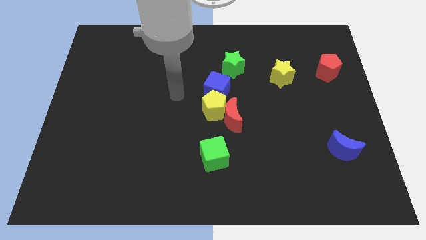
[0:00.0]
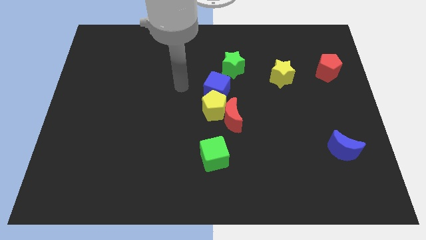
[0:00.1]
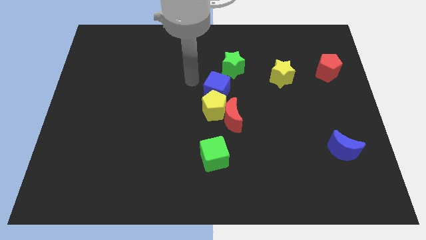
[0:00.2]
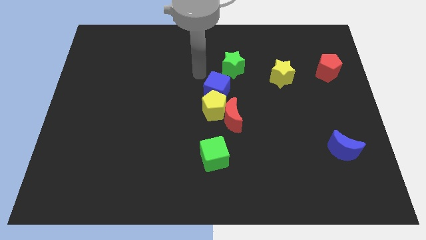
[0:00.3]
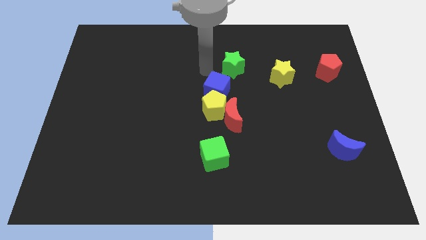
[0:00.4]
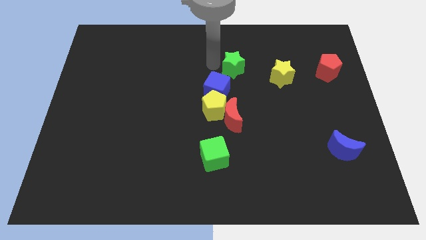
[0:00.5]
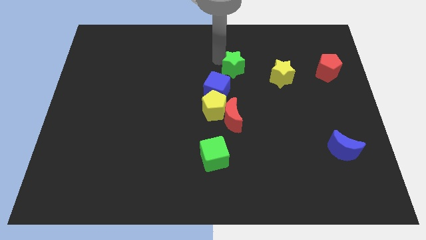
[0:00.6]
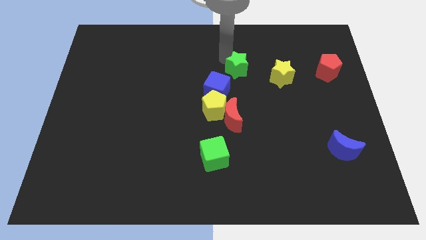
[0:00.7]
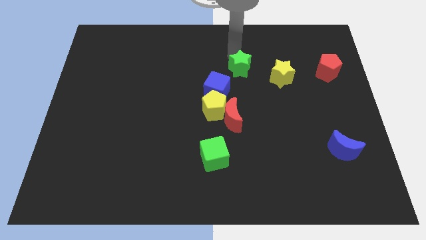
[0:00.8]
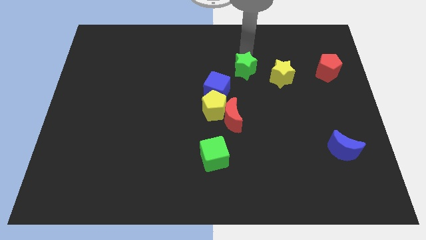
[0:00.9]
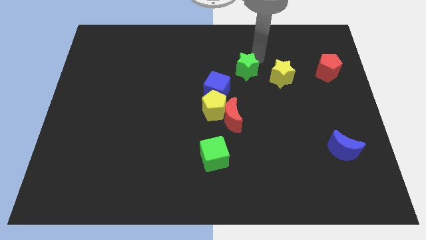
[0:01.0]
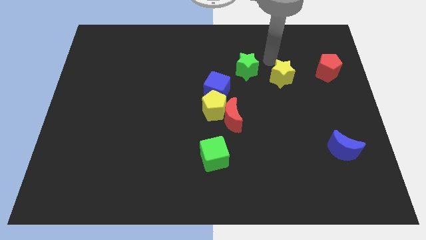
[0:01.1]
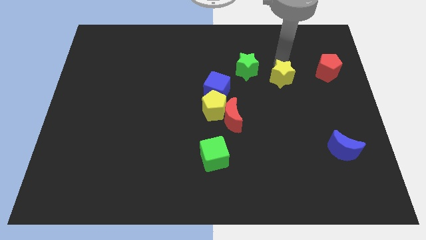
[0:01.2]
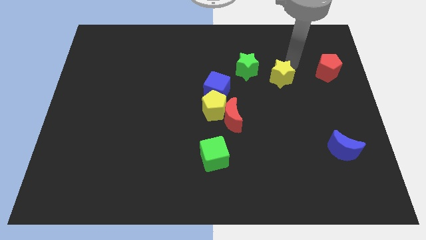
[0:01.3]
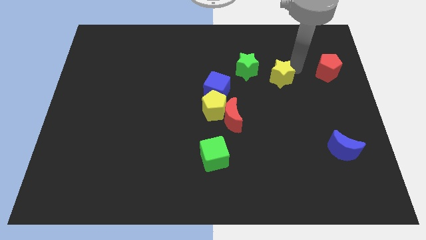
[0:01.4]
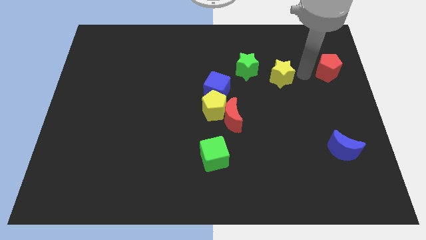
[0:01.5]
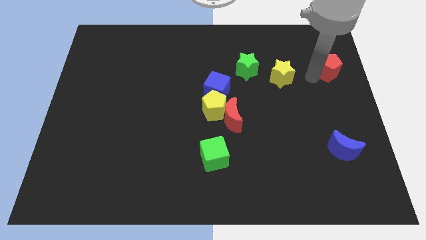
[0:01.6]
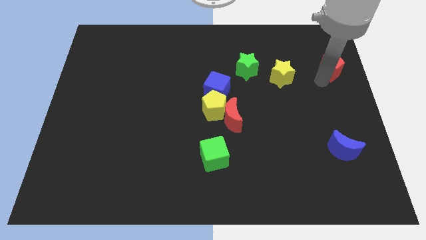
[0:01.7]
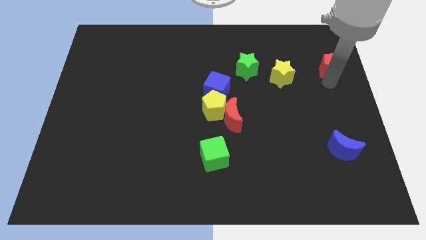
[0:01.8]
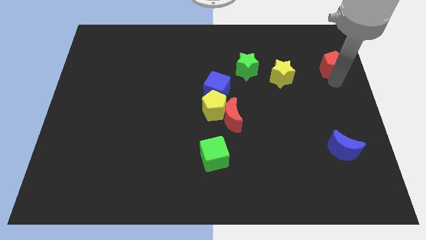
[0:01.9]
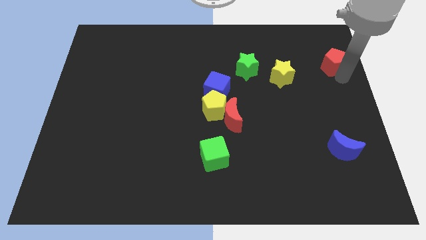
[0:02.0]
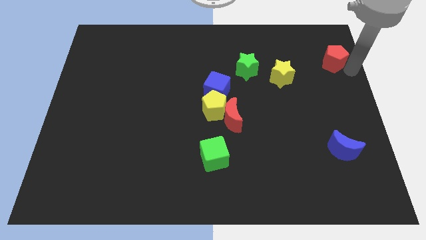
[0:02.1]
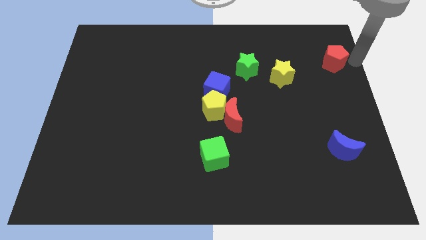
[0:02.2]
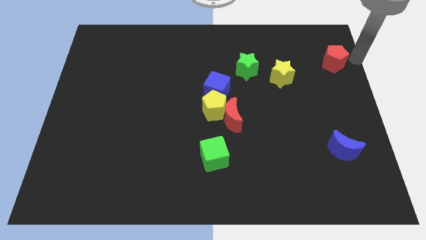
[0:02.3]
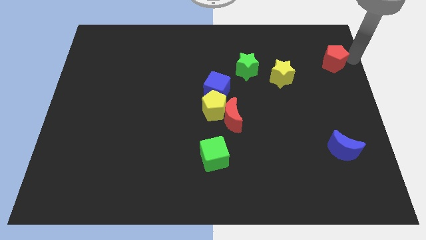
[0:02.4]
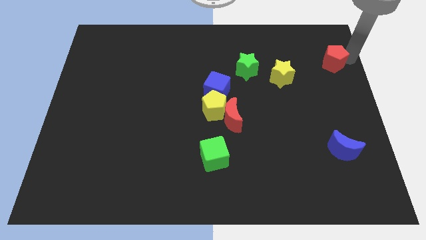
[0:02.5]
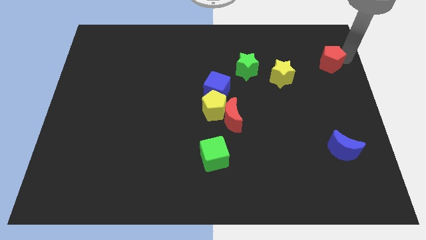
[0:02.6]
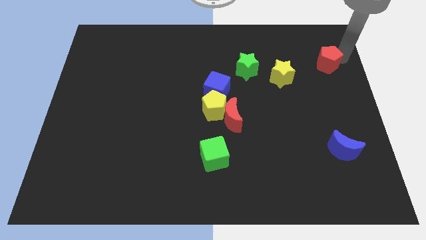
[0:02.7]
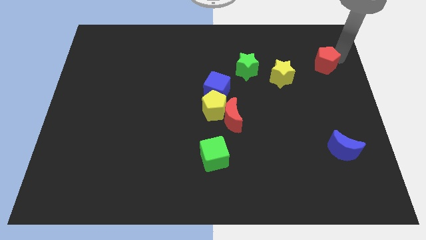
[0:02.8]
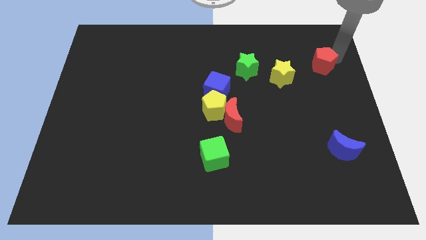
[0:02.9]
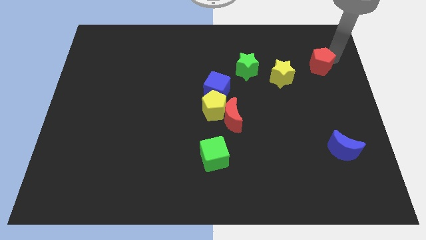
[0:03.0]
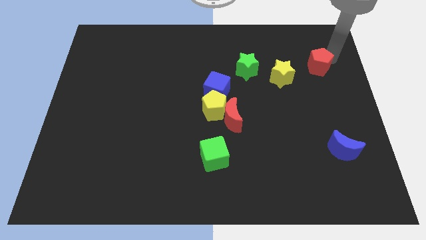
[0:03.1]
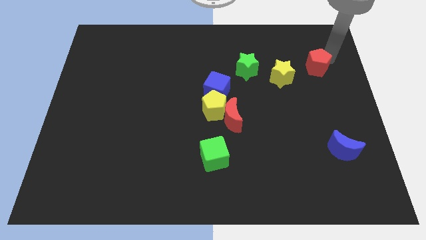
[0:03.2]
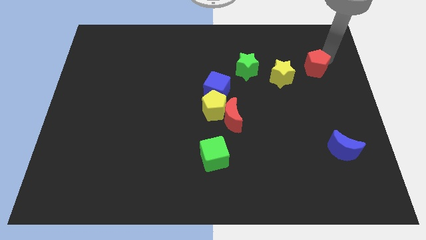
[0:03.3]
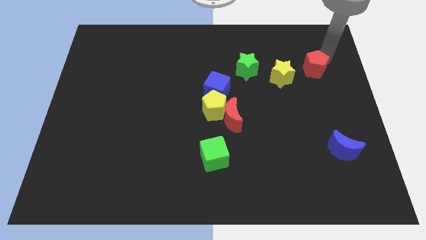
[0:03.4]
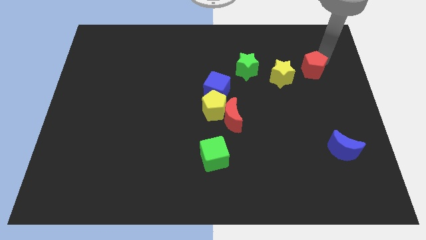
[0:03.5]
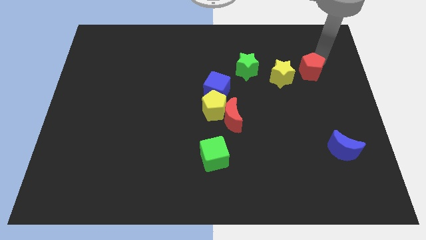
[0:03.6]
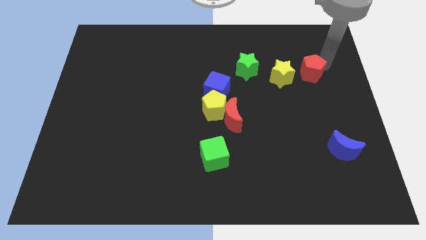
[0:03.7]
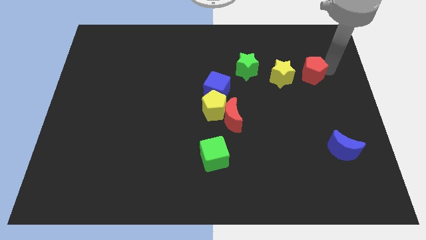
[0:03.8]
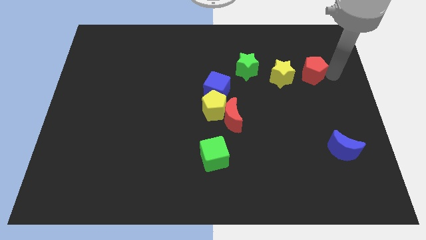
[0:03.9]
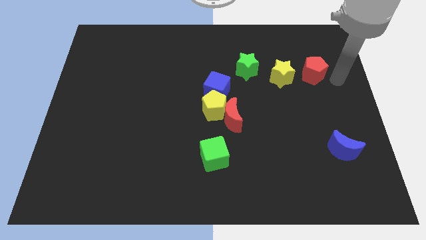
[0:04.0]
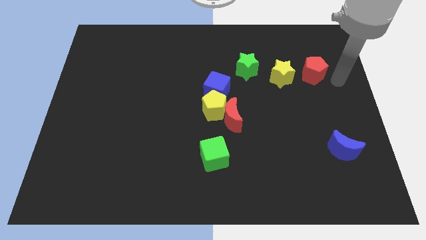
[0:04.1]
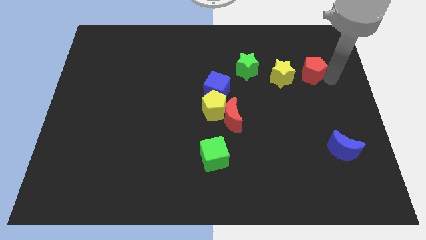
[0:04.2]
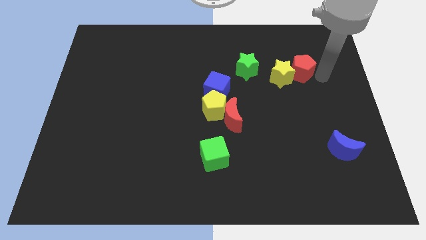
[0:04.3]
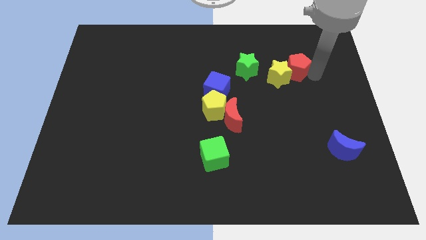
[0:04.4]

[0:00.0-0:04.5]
push the red pentagon a little left

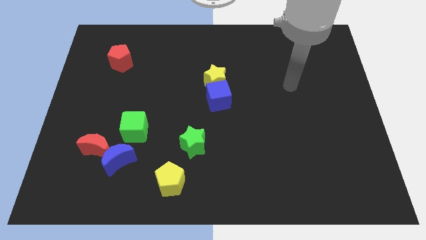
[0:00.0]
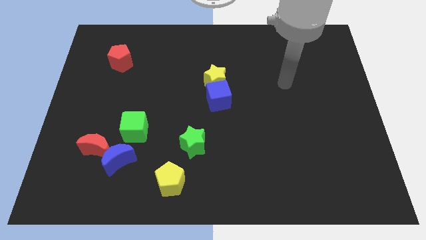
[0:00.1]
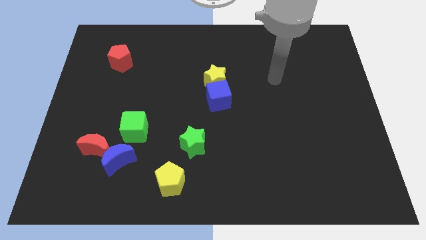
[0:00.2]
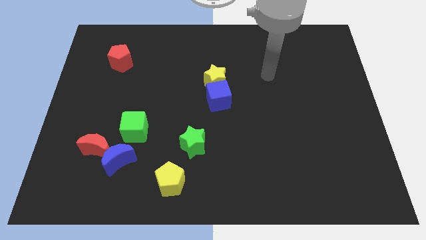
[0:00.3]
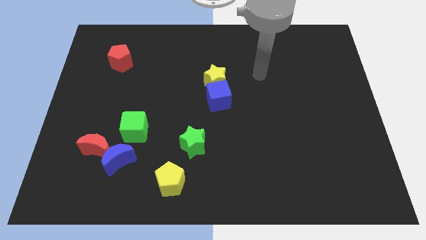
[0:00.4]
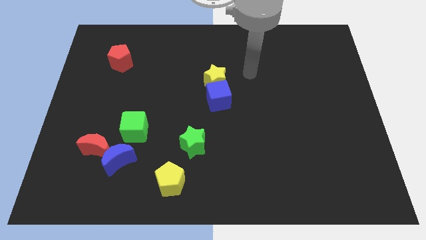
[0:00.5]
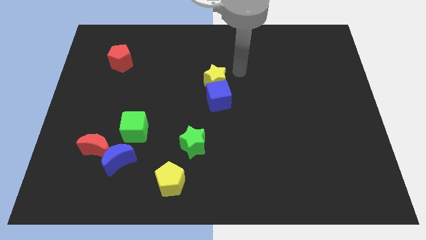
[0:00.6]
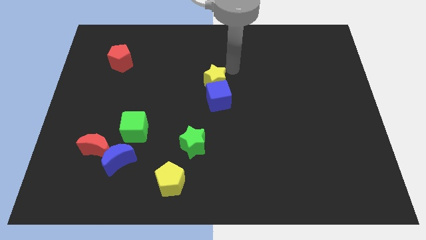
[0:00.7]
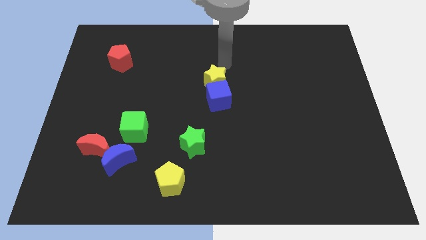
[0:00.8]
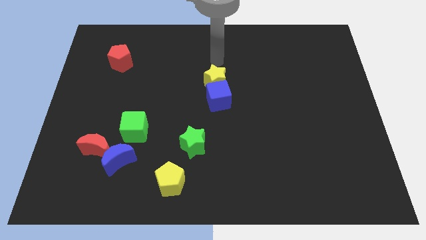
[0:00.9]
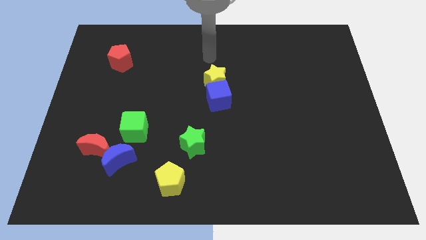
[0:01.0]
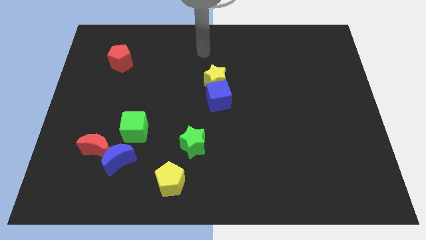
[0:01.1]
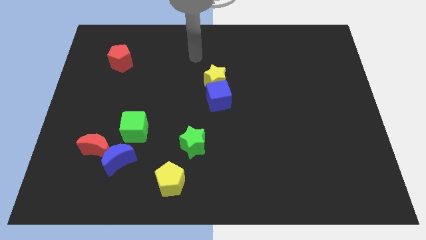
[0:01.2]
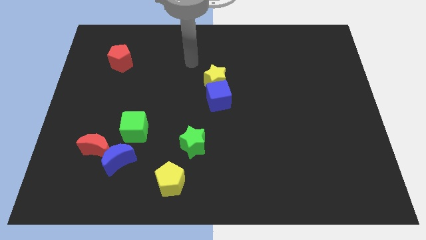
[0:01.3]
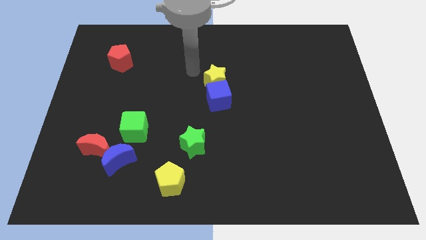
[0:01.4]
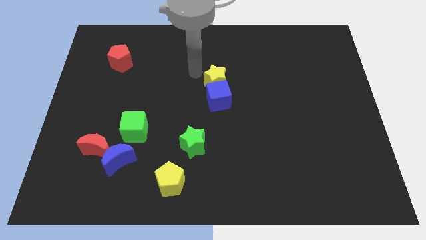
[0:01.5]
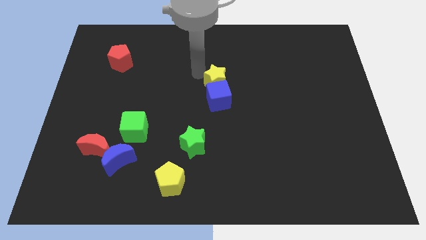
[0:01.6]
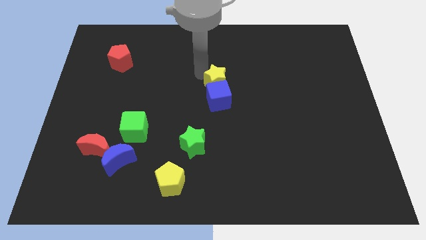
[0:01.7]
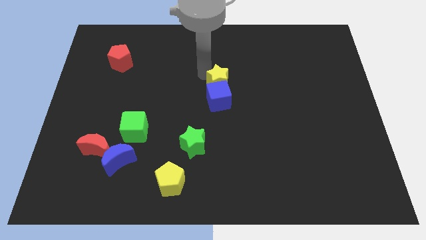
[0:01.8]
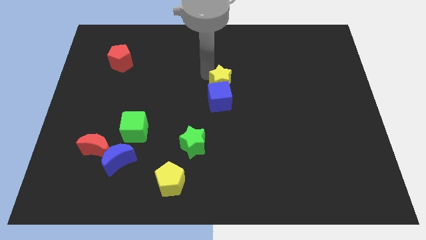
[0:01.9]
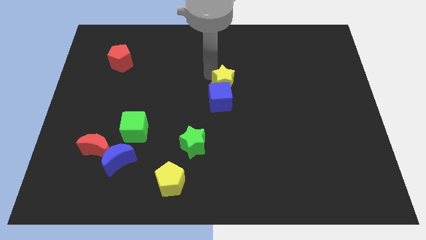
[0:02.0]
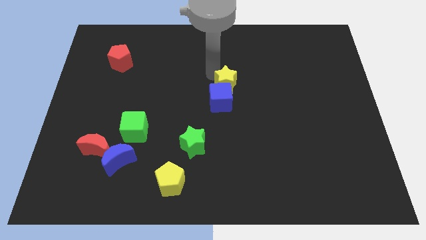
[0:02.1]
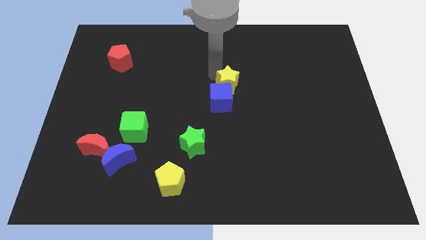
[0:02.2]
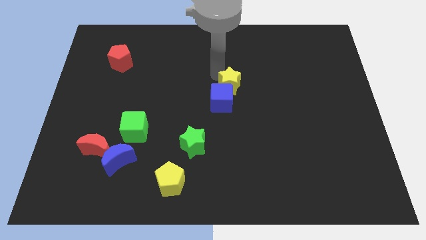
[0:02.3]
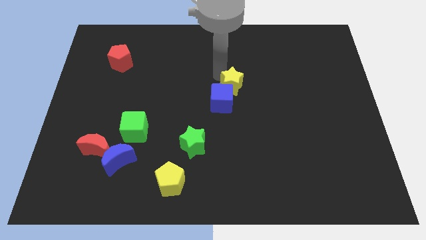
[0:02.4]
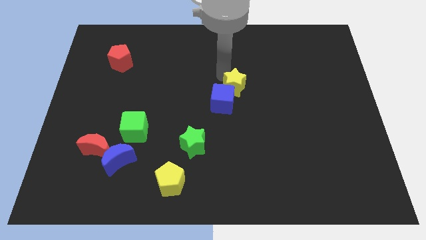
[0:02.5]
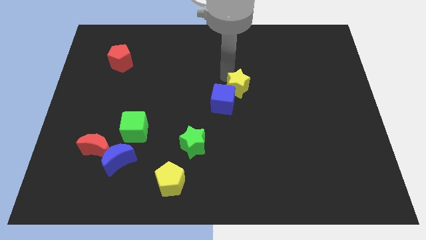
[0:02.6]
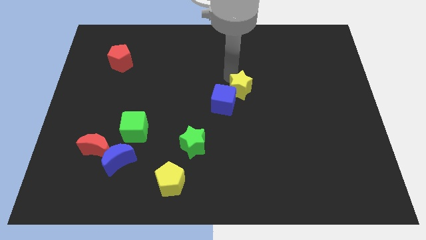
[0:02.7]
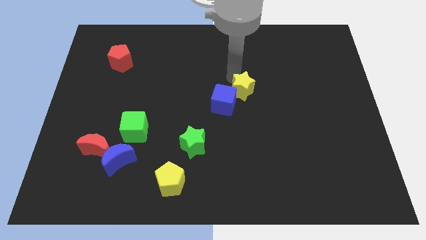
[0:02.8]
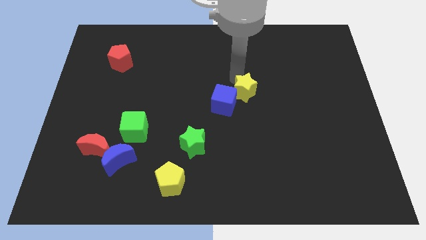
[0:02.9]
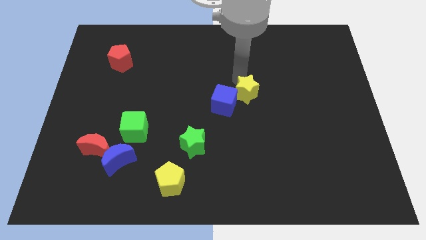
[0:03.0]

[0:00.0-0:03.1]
slightly push the yellow star down and right

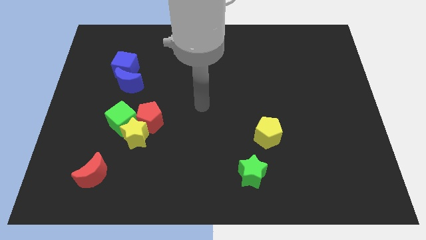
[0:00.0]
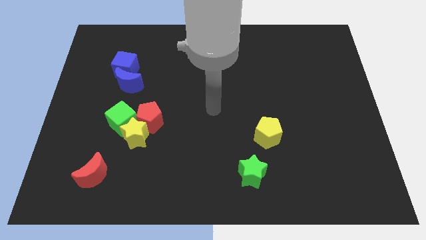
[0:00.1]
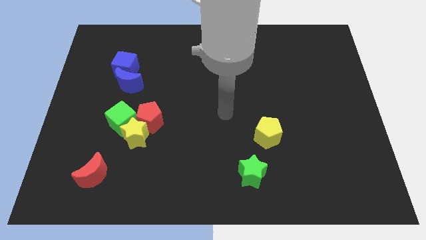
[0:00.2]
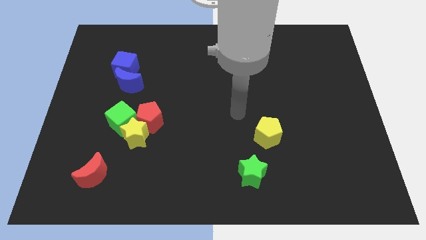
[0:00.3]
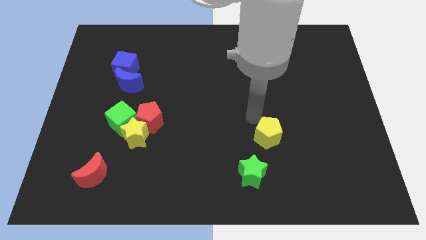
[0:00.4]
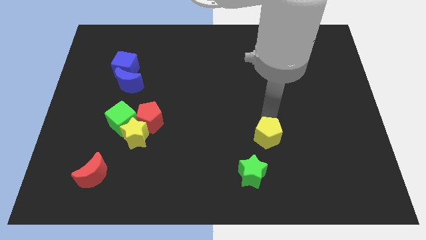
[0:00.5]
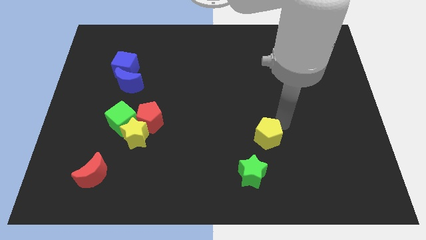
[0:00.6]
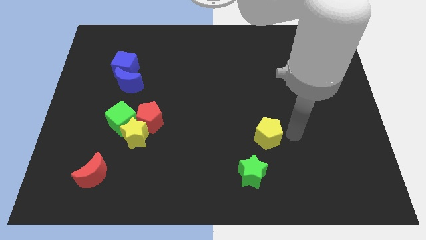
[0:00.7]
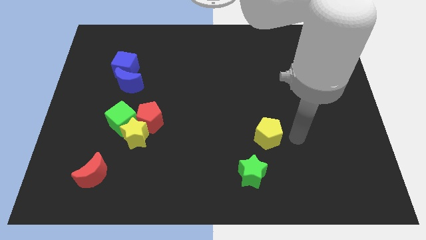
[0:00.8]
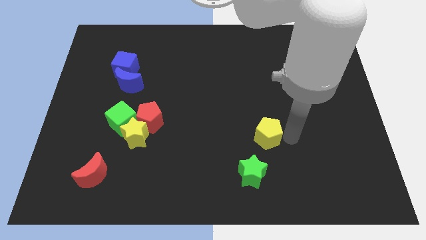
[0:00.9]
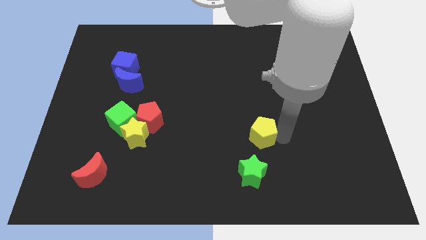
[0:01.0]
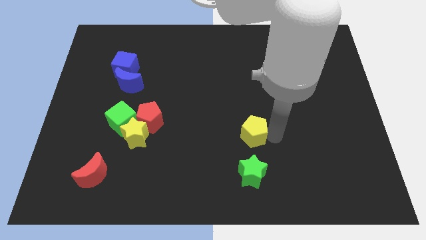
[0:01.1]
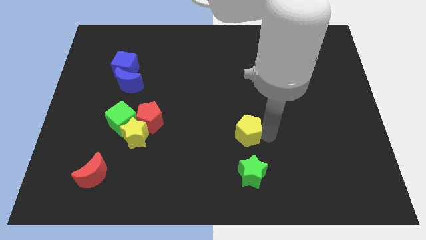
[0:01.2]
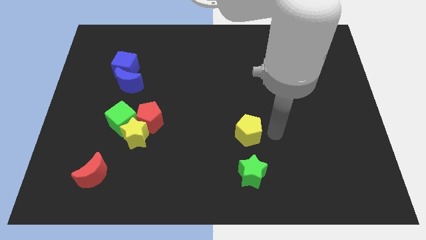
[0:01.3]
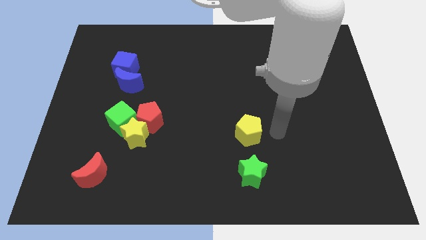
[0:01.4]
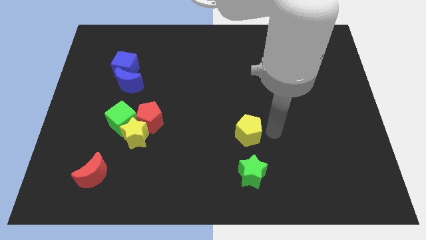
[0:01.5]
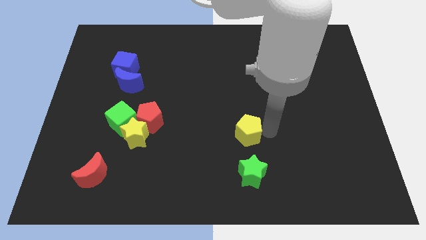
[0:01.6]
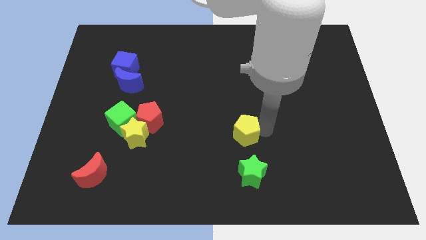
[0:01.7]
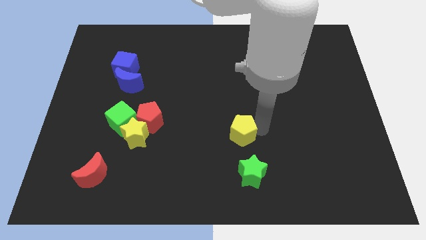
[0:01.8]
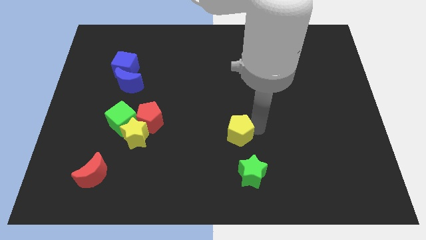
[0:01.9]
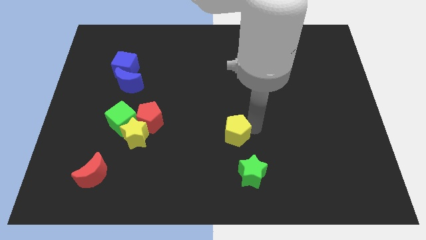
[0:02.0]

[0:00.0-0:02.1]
slide the yellow pentagon a little to the left
